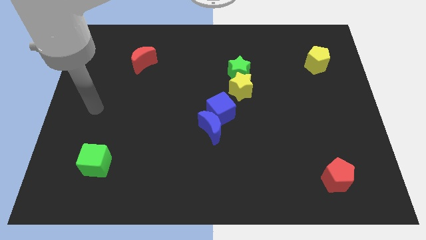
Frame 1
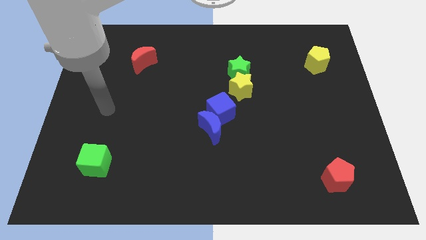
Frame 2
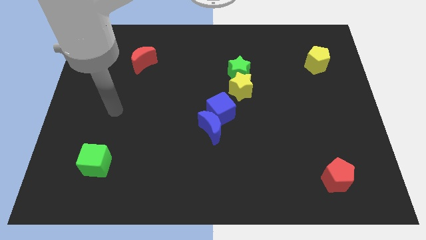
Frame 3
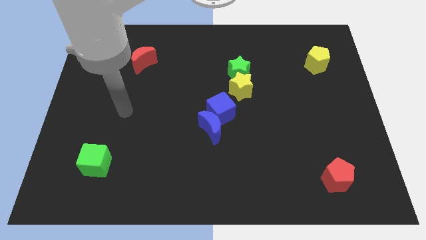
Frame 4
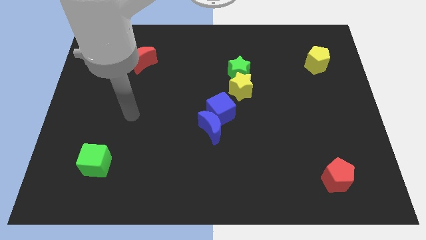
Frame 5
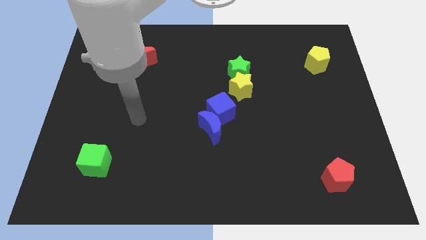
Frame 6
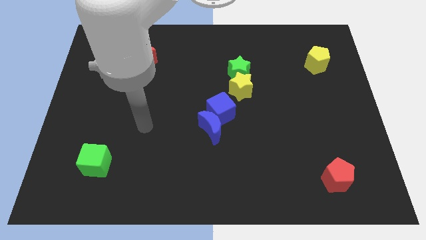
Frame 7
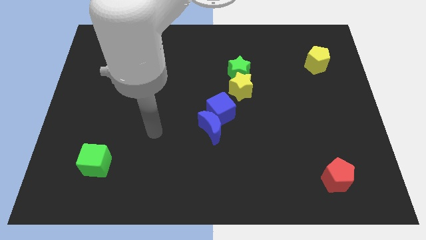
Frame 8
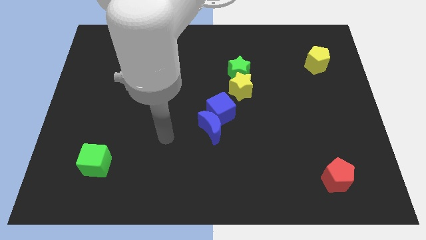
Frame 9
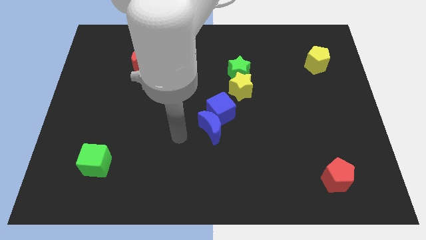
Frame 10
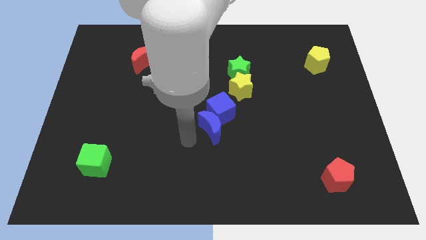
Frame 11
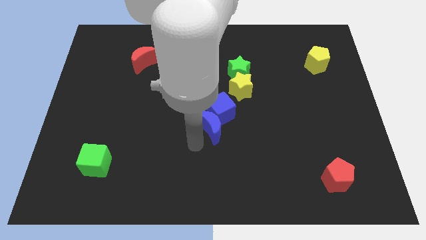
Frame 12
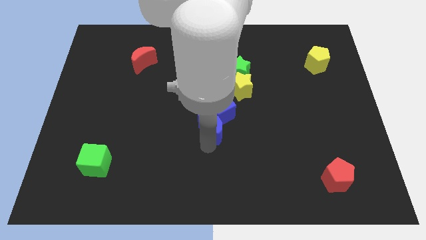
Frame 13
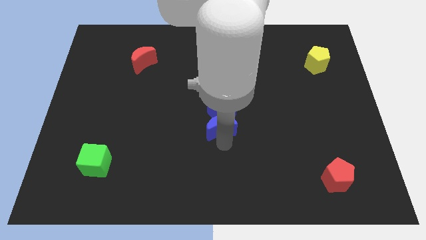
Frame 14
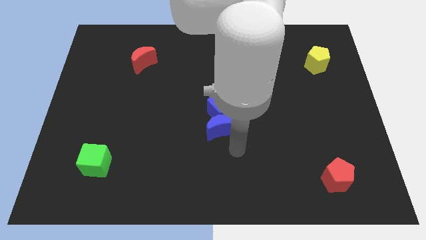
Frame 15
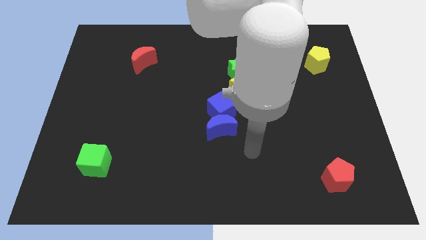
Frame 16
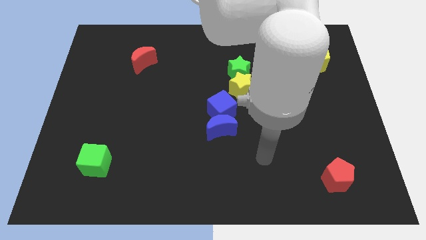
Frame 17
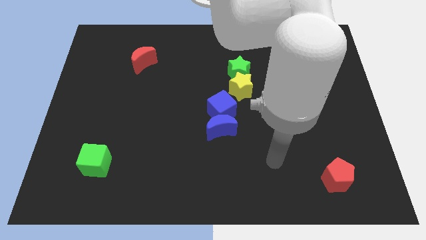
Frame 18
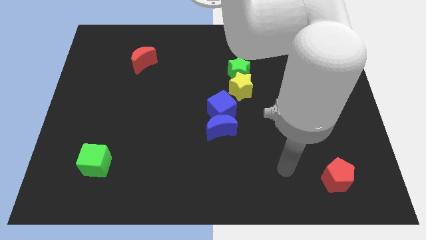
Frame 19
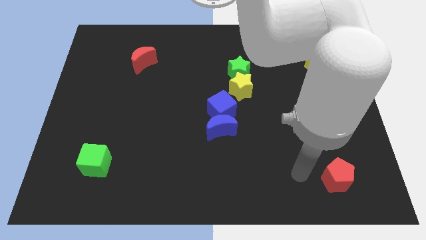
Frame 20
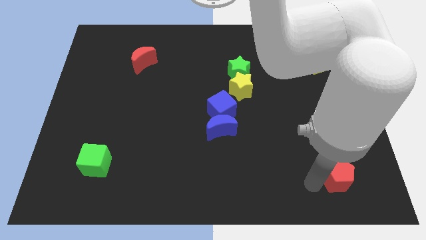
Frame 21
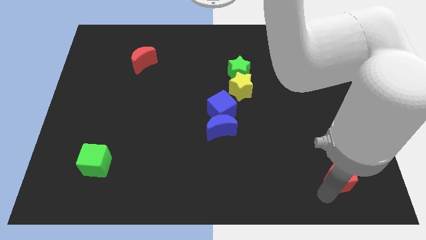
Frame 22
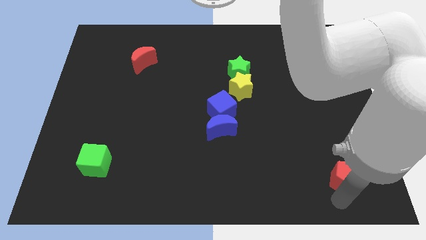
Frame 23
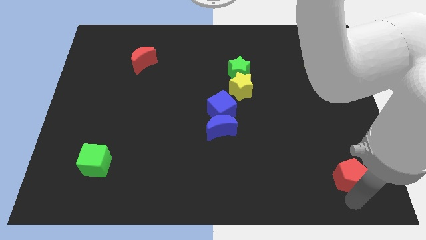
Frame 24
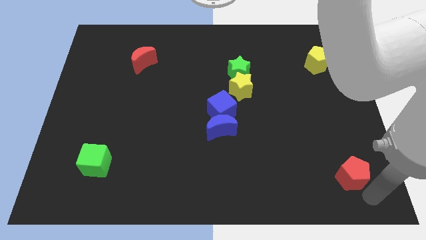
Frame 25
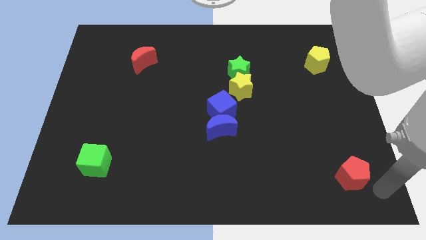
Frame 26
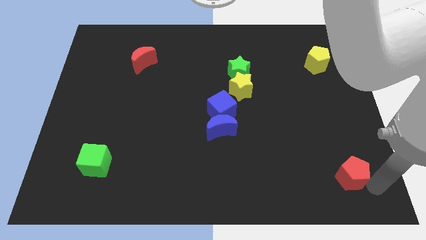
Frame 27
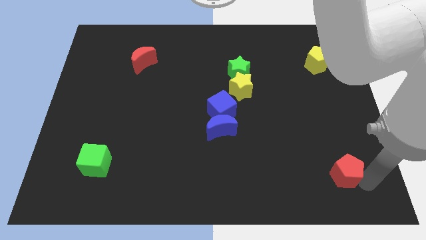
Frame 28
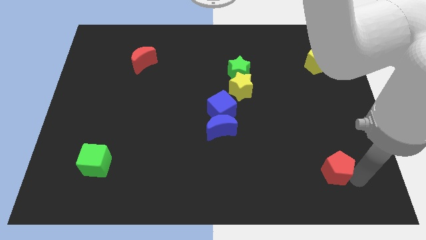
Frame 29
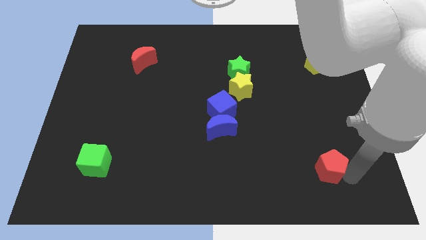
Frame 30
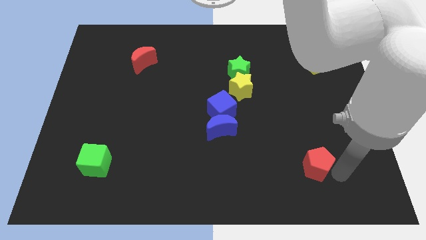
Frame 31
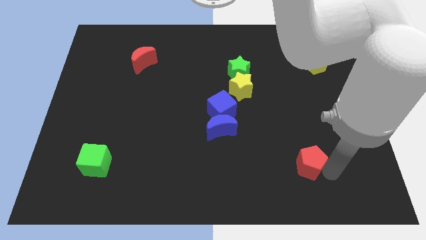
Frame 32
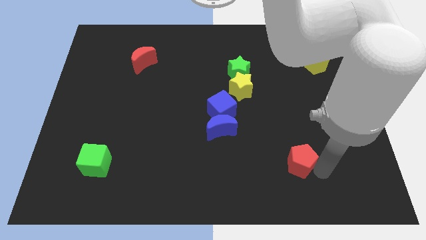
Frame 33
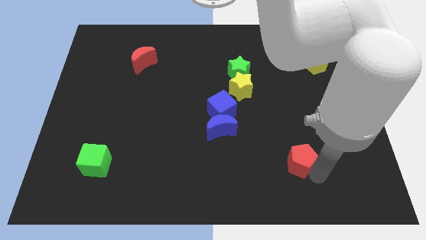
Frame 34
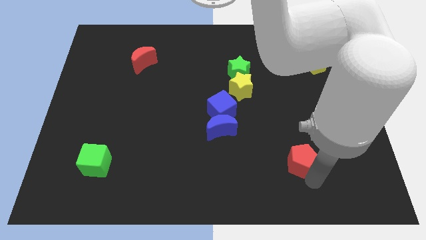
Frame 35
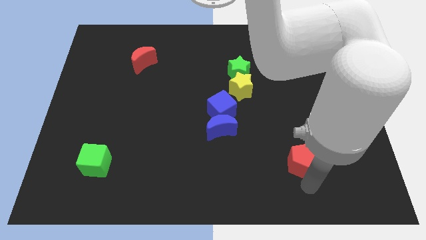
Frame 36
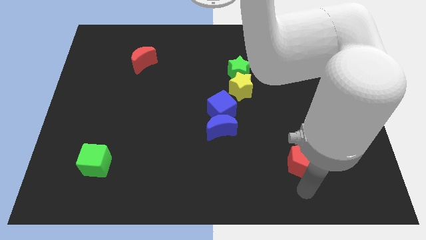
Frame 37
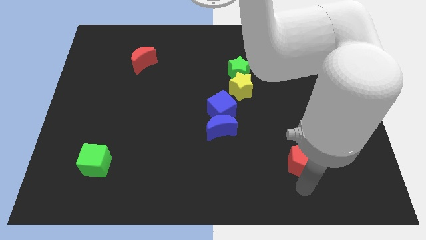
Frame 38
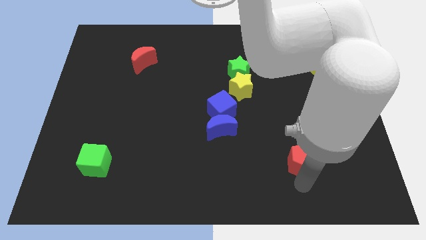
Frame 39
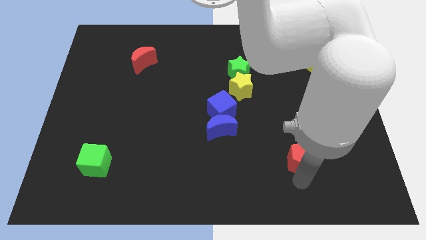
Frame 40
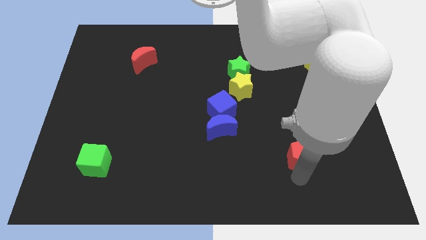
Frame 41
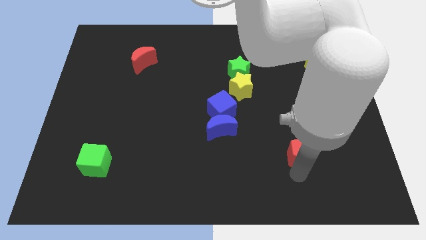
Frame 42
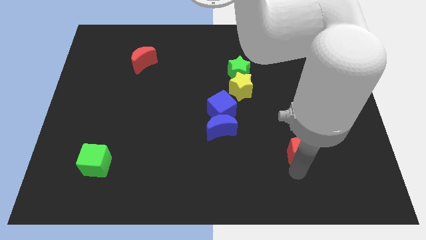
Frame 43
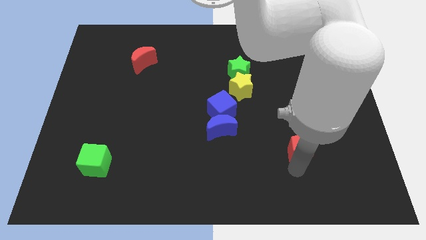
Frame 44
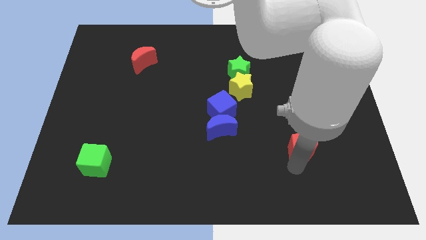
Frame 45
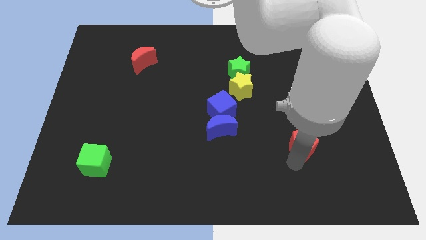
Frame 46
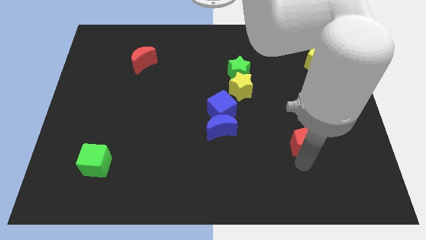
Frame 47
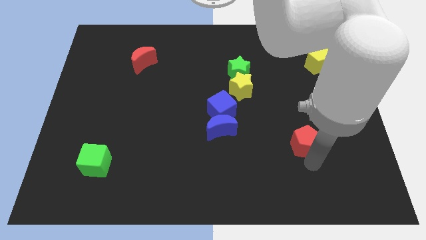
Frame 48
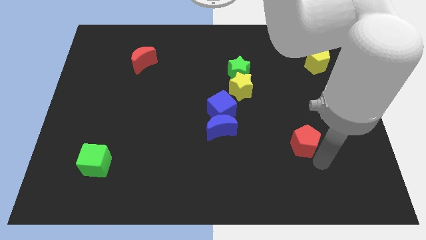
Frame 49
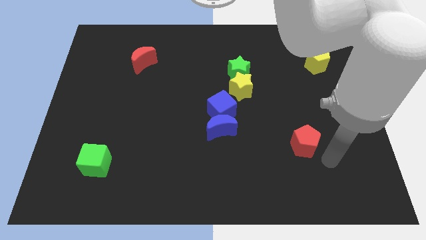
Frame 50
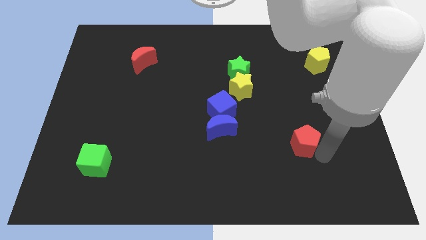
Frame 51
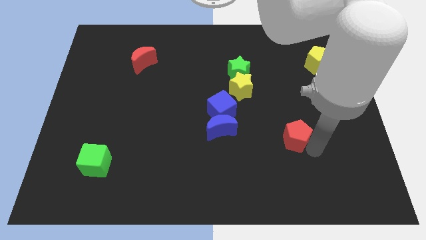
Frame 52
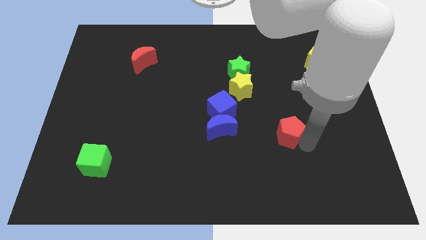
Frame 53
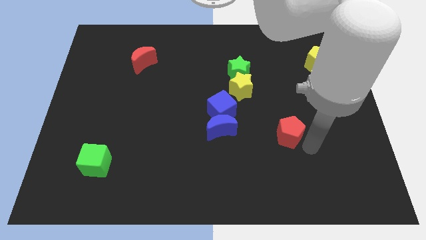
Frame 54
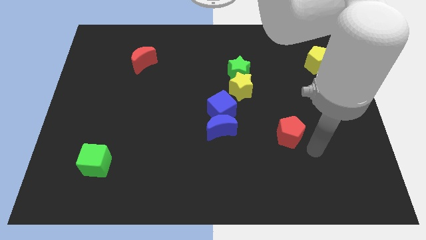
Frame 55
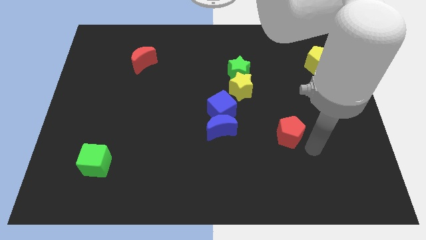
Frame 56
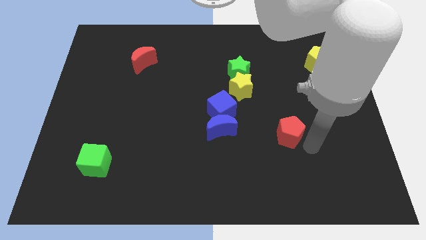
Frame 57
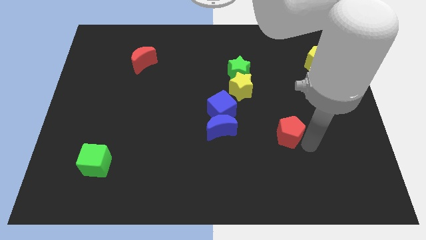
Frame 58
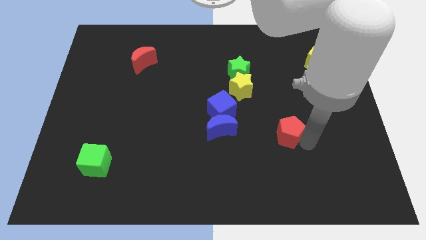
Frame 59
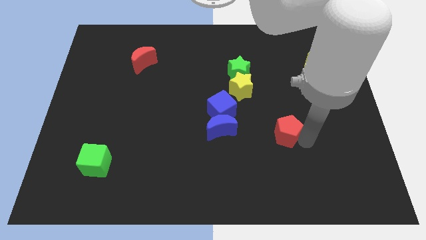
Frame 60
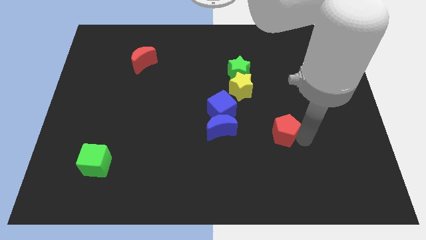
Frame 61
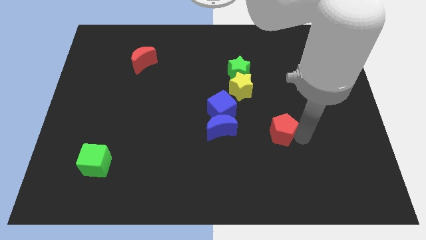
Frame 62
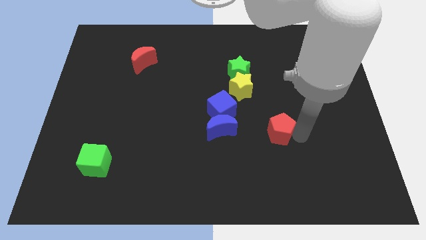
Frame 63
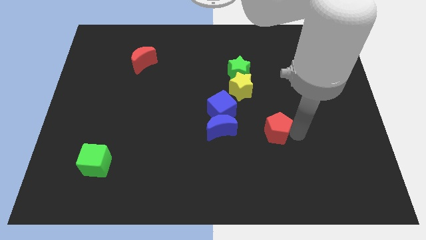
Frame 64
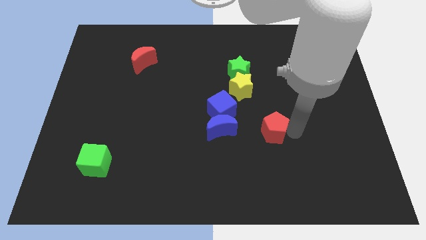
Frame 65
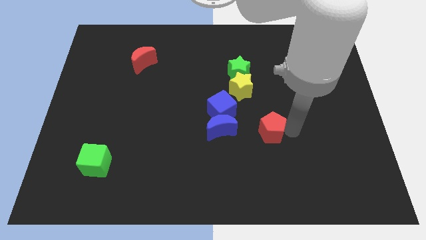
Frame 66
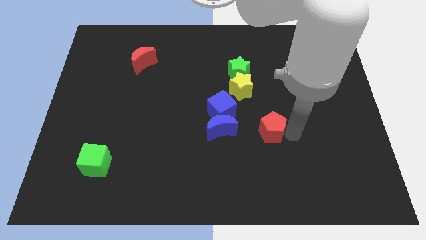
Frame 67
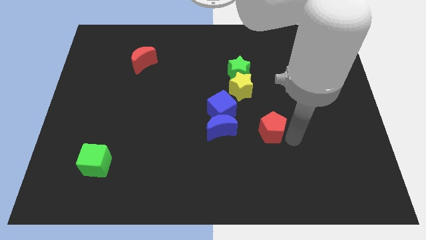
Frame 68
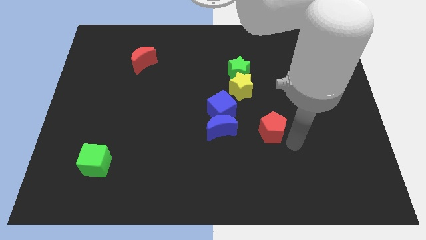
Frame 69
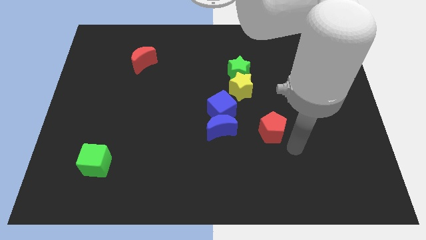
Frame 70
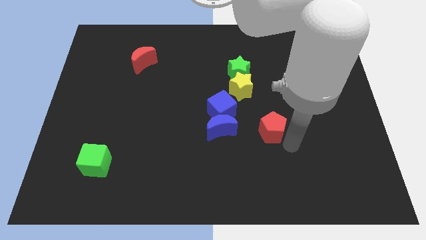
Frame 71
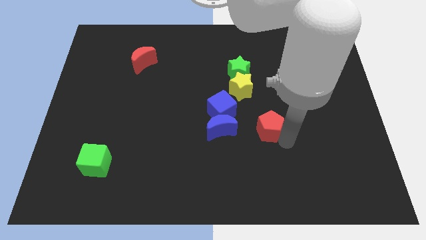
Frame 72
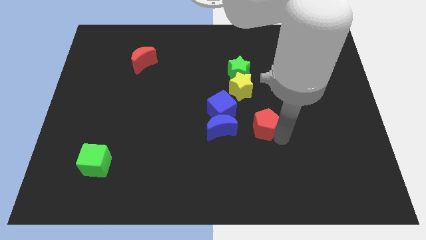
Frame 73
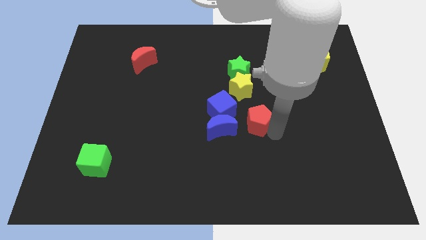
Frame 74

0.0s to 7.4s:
push the red pentagon to the top right side of the blue moon

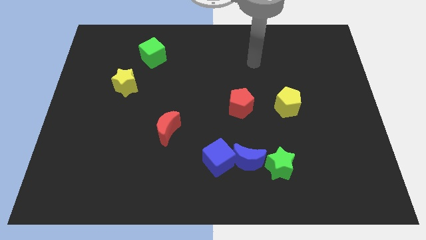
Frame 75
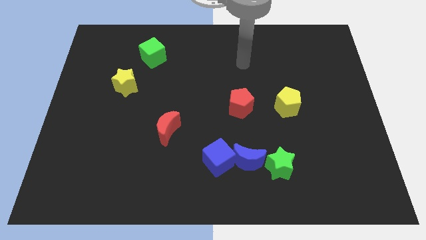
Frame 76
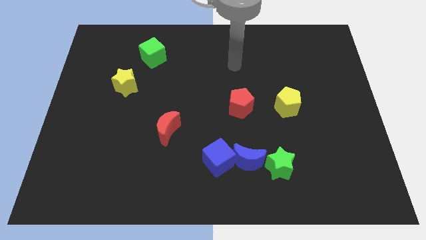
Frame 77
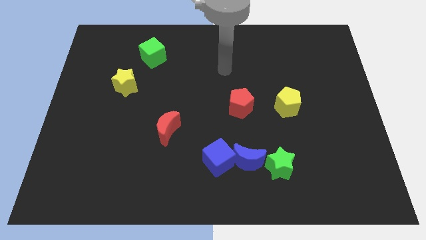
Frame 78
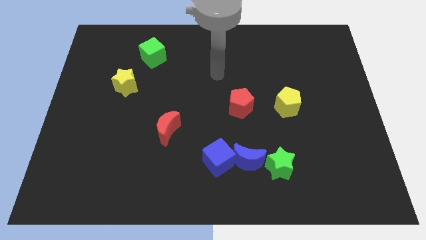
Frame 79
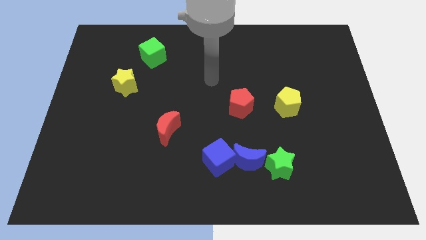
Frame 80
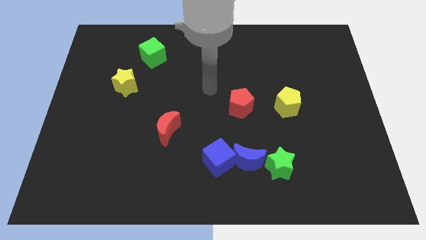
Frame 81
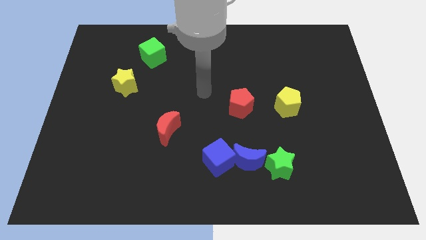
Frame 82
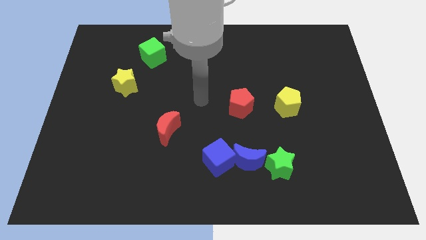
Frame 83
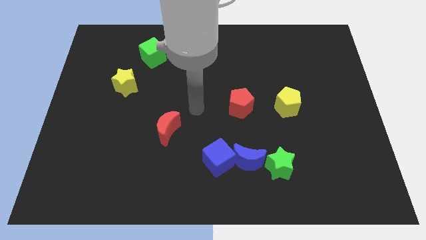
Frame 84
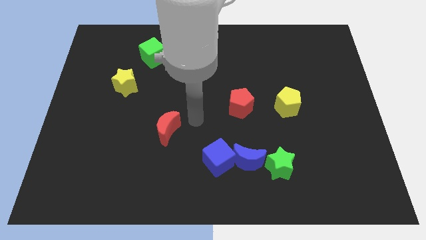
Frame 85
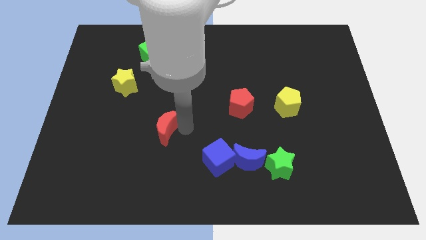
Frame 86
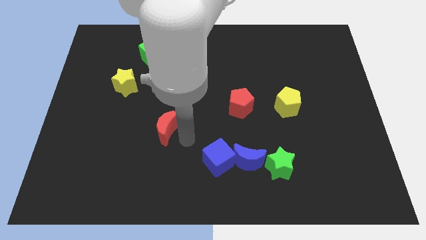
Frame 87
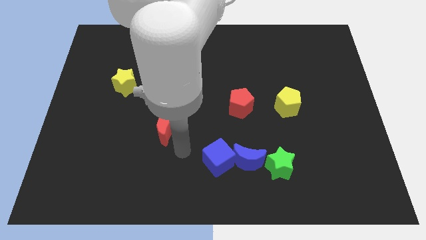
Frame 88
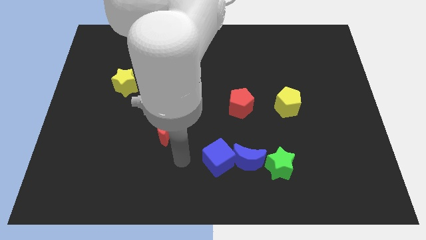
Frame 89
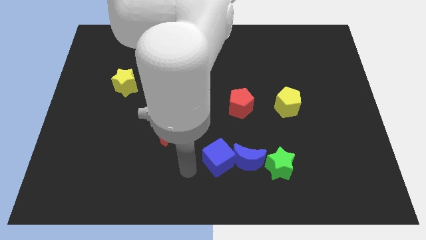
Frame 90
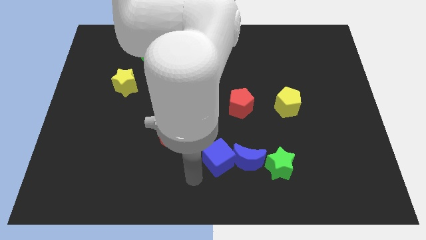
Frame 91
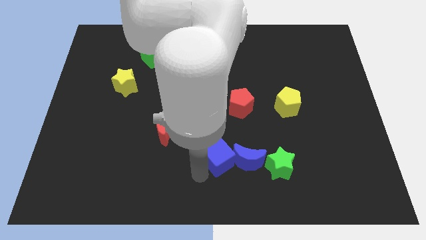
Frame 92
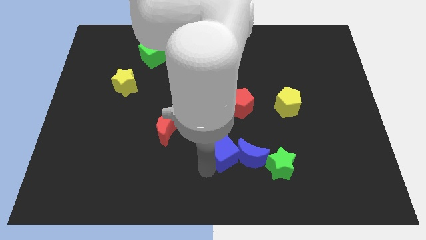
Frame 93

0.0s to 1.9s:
move the blue cube to the bottom side of the red pentagon
